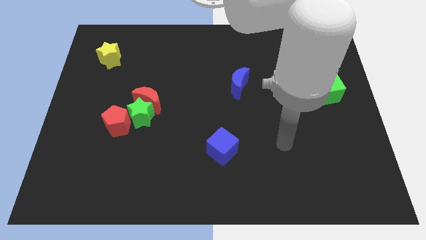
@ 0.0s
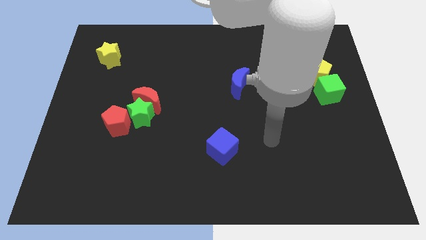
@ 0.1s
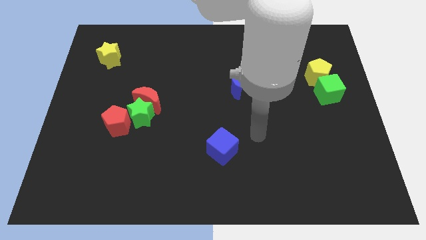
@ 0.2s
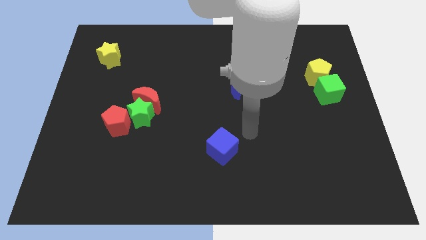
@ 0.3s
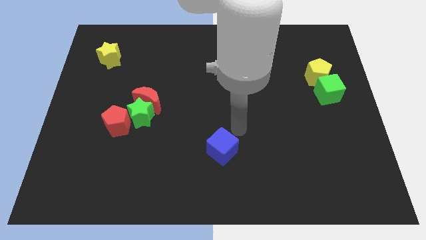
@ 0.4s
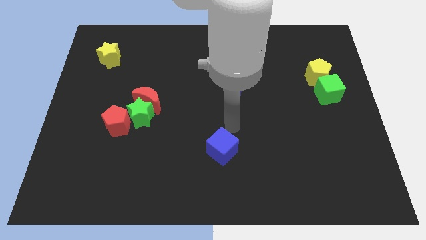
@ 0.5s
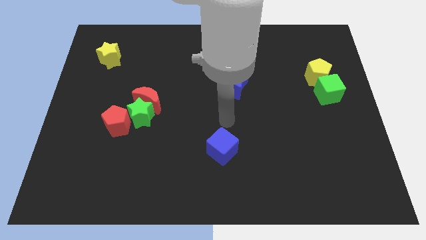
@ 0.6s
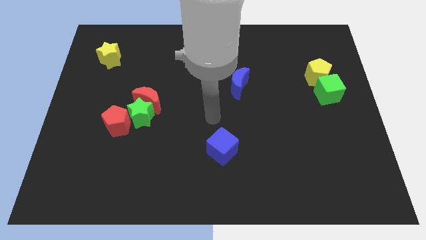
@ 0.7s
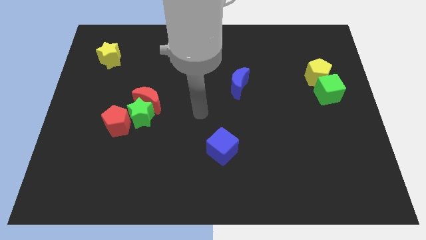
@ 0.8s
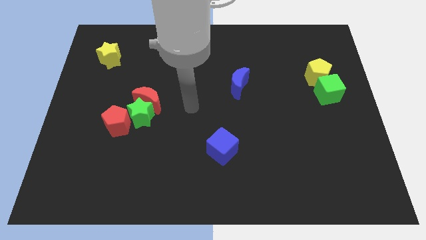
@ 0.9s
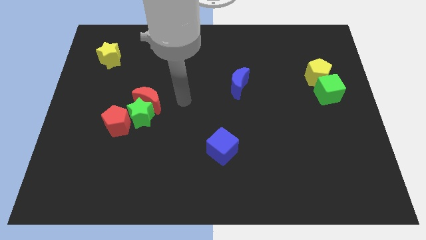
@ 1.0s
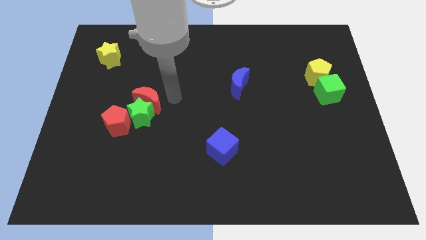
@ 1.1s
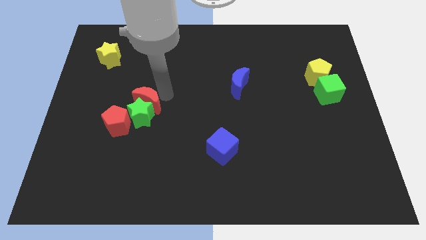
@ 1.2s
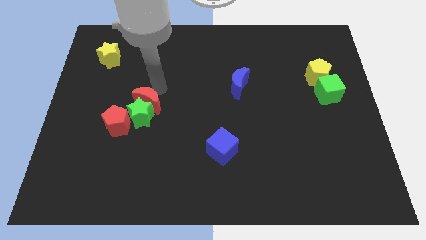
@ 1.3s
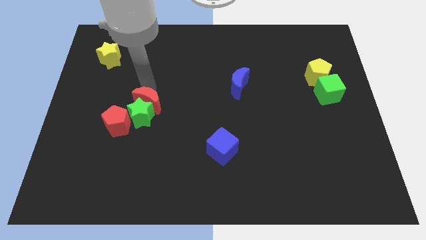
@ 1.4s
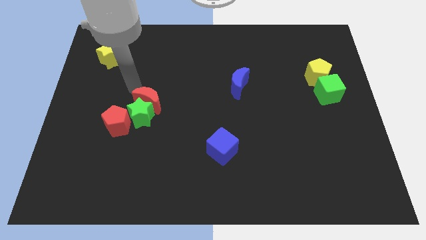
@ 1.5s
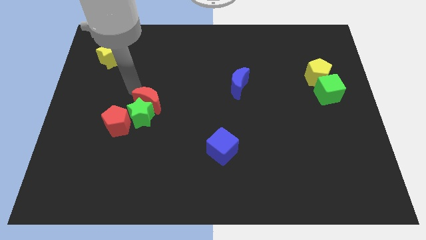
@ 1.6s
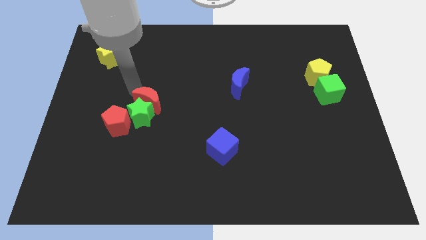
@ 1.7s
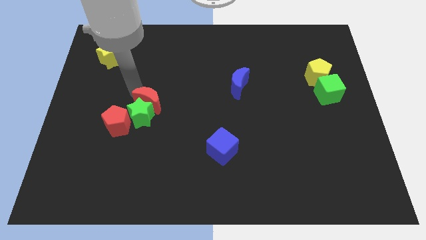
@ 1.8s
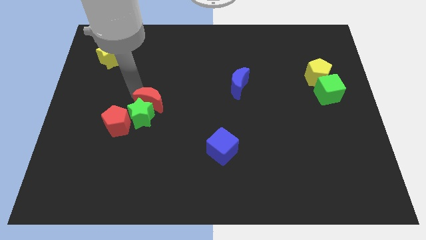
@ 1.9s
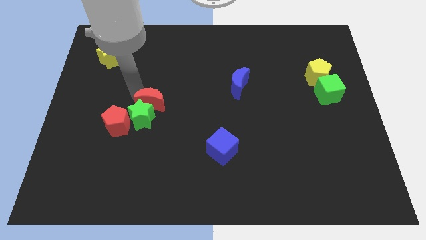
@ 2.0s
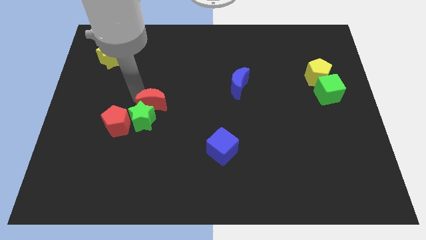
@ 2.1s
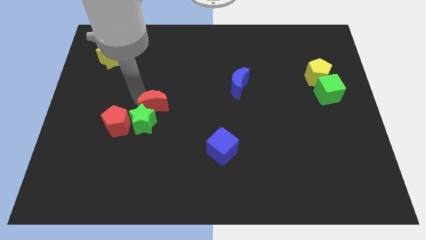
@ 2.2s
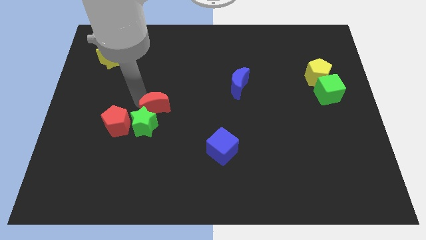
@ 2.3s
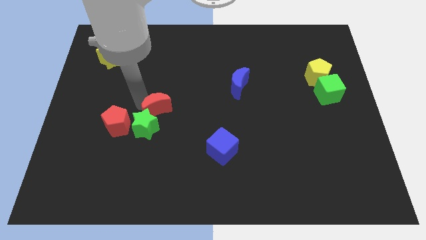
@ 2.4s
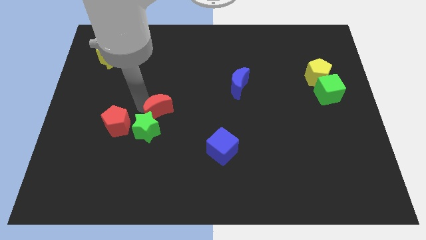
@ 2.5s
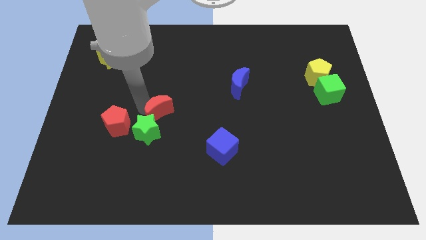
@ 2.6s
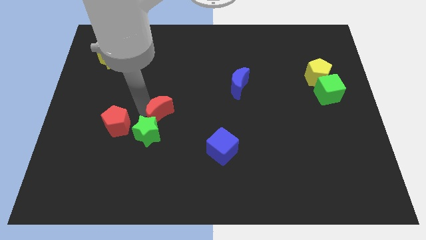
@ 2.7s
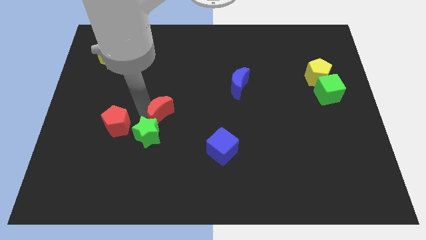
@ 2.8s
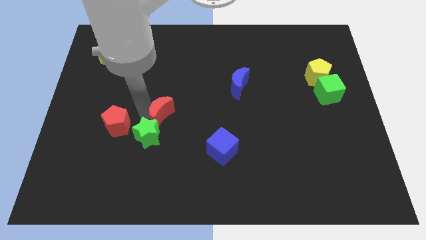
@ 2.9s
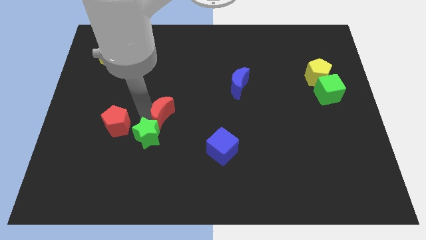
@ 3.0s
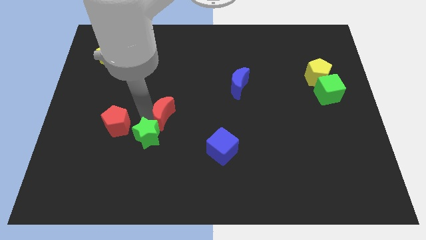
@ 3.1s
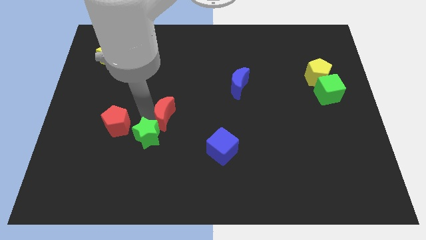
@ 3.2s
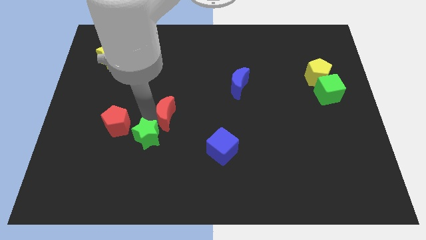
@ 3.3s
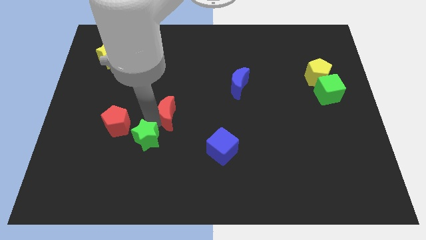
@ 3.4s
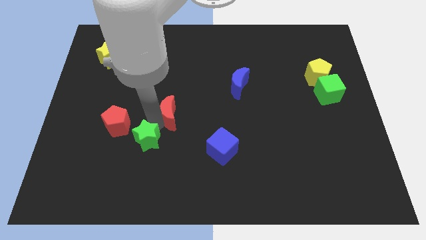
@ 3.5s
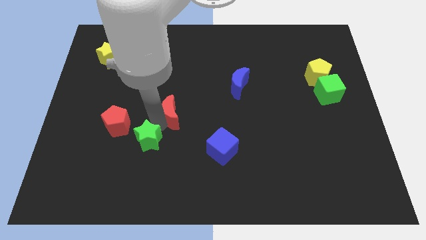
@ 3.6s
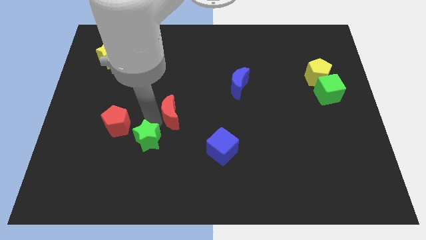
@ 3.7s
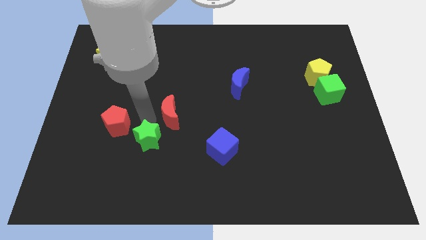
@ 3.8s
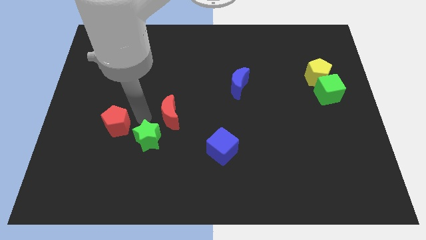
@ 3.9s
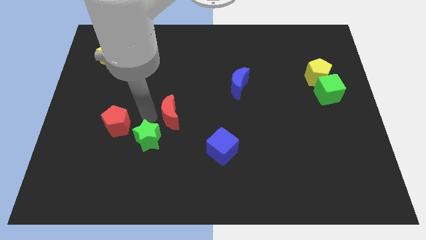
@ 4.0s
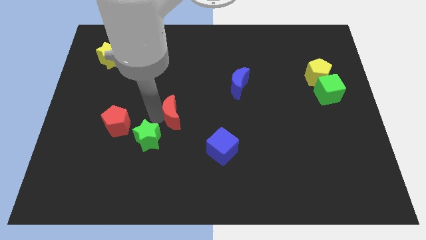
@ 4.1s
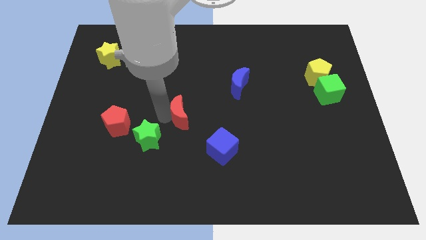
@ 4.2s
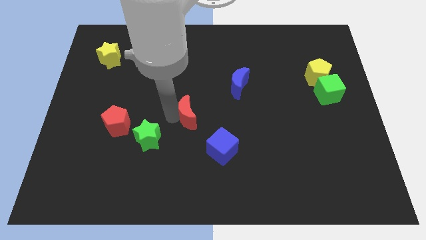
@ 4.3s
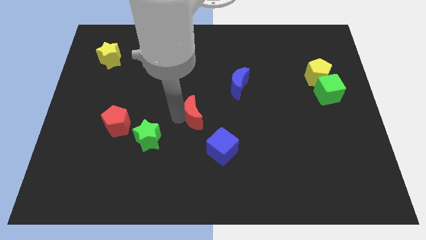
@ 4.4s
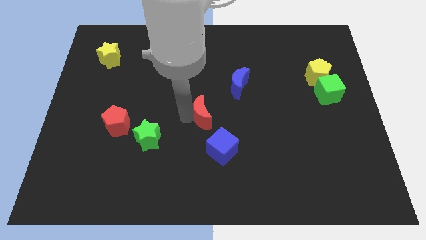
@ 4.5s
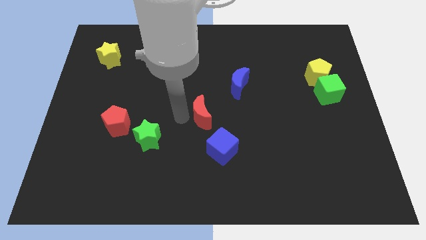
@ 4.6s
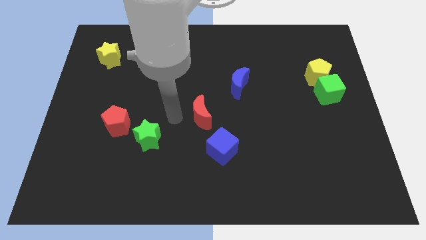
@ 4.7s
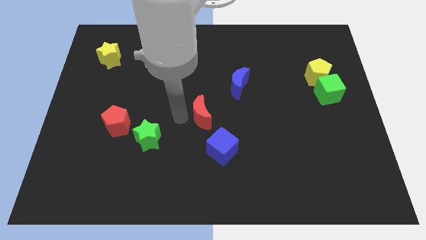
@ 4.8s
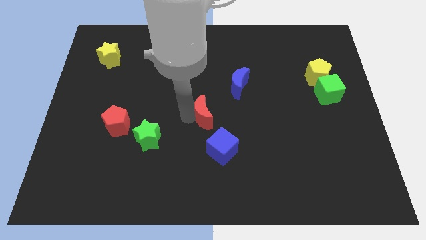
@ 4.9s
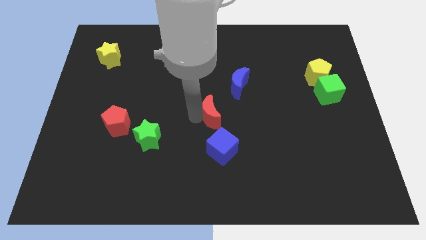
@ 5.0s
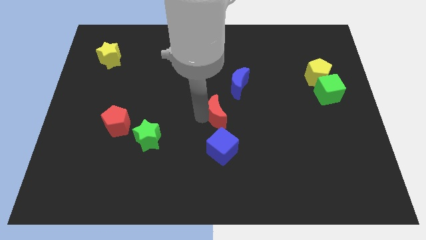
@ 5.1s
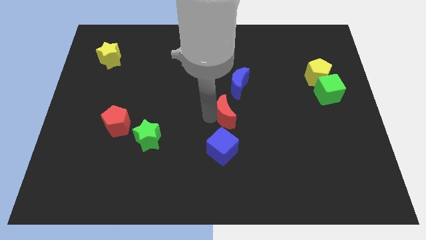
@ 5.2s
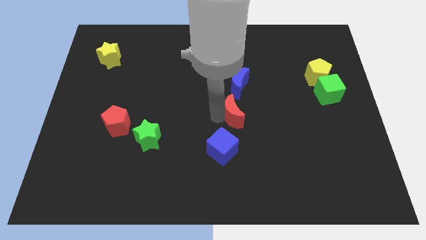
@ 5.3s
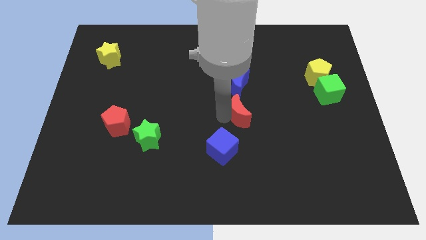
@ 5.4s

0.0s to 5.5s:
move the red moon right

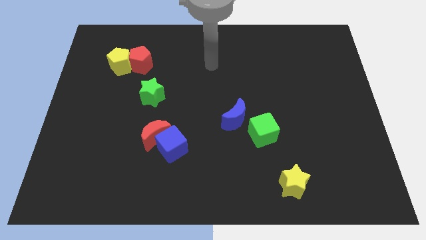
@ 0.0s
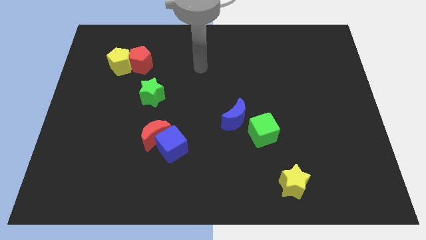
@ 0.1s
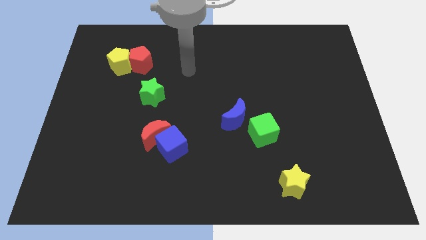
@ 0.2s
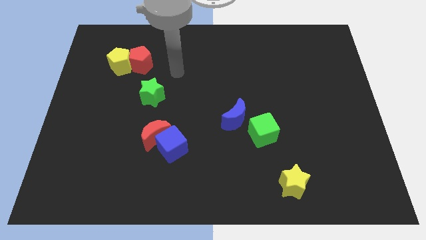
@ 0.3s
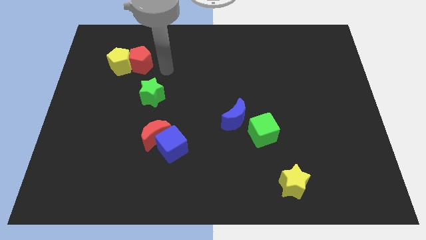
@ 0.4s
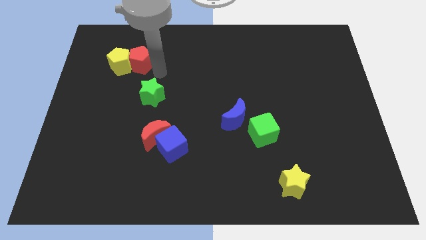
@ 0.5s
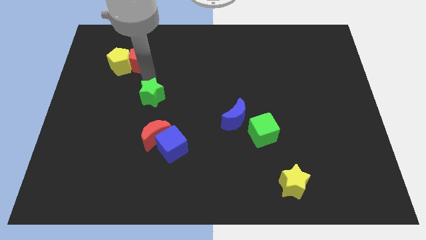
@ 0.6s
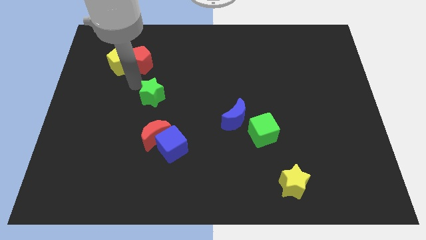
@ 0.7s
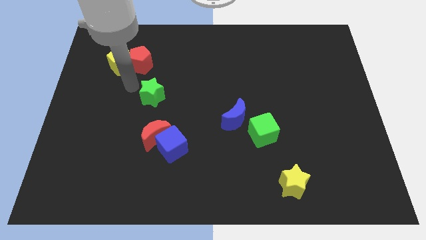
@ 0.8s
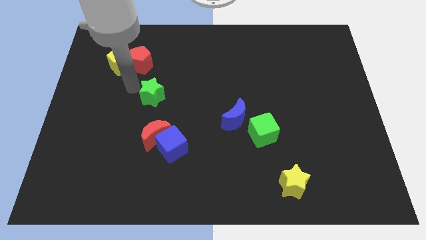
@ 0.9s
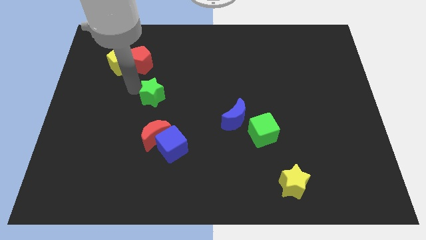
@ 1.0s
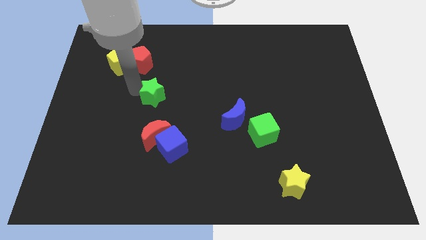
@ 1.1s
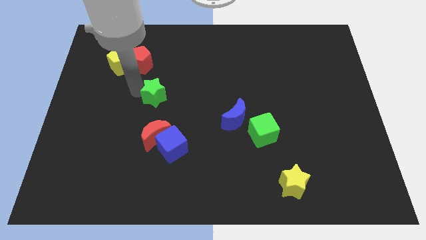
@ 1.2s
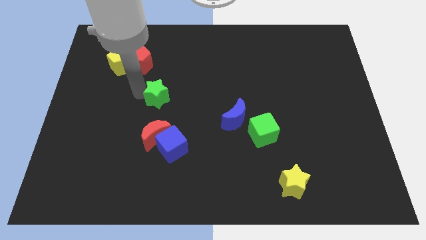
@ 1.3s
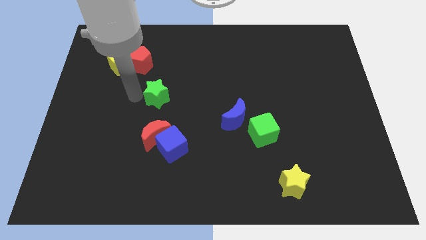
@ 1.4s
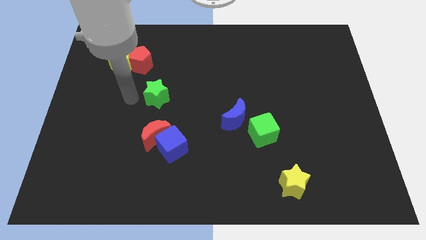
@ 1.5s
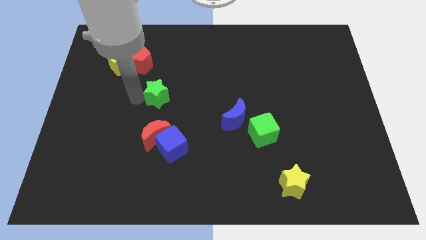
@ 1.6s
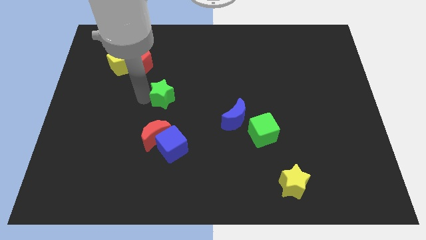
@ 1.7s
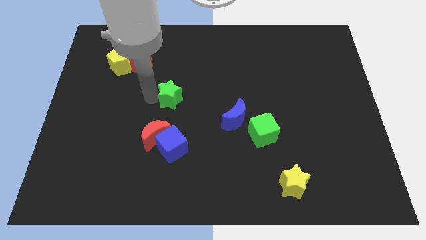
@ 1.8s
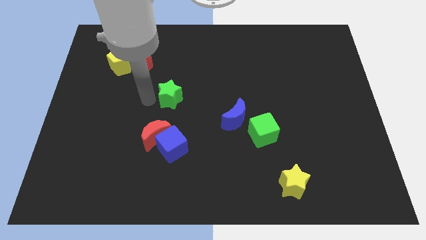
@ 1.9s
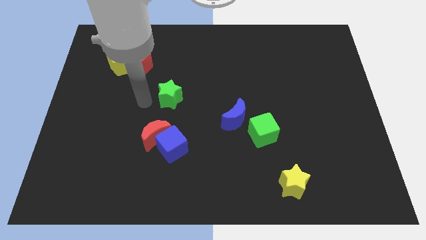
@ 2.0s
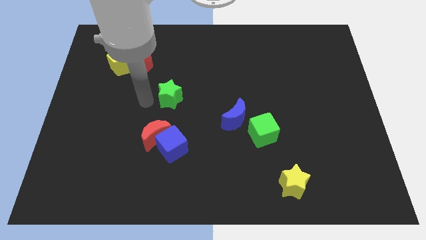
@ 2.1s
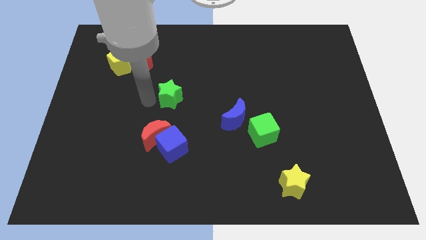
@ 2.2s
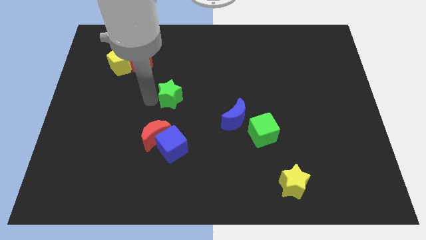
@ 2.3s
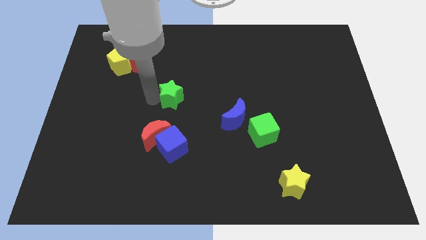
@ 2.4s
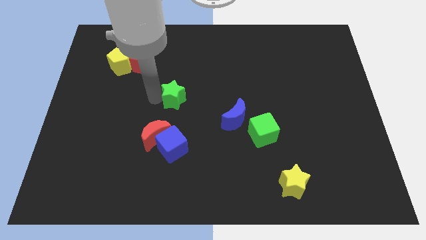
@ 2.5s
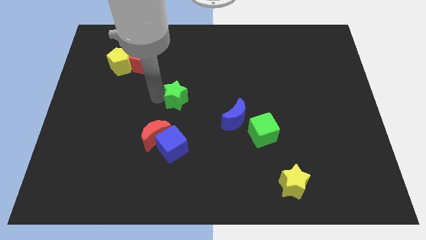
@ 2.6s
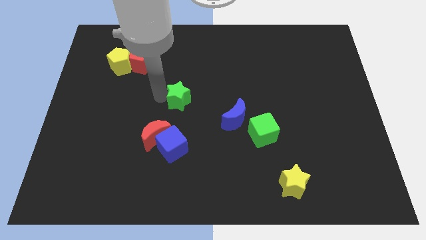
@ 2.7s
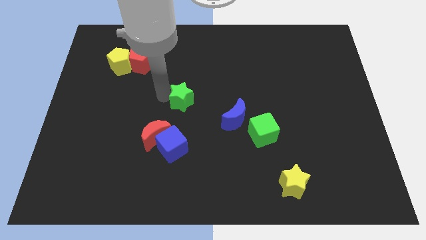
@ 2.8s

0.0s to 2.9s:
move the green star a little to the right
